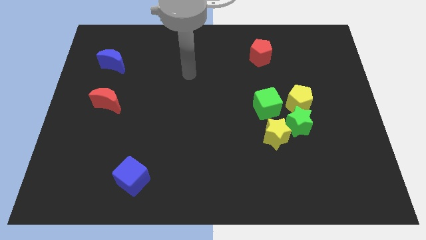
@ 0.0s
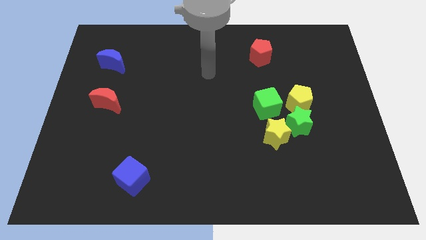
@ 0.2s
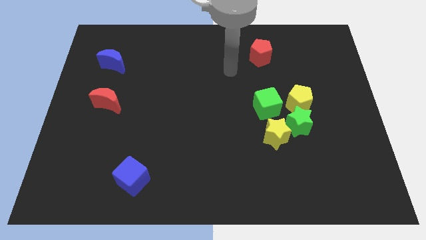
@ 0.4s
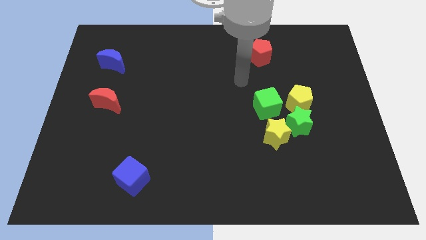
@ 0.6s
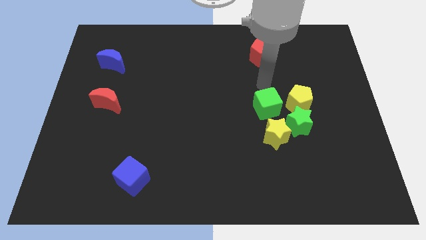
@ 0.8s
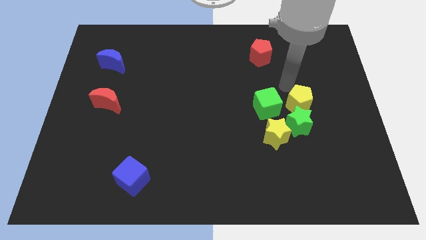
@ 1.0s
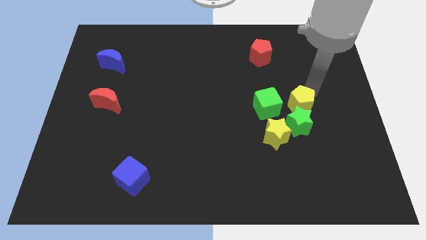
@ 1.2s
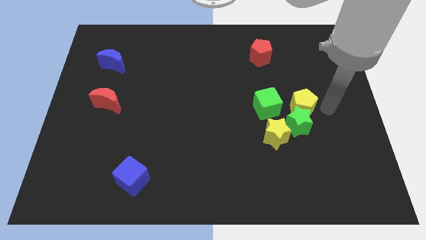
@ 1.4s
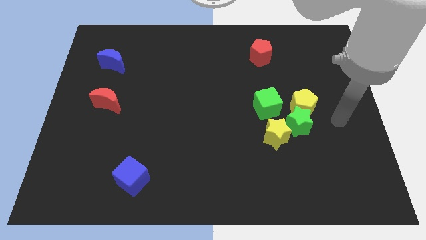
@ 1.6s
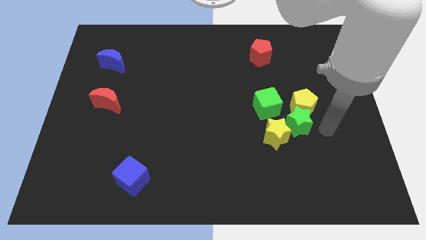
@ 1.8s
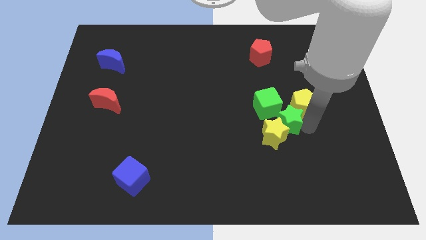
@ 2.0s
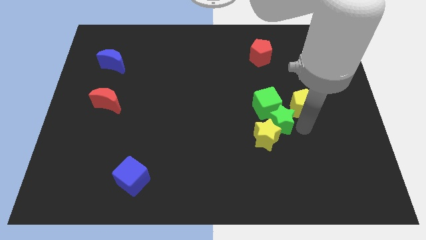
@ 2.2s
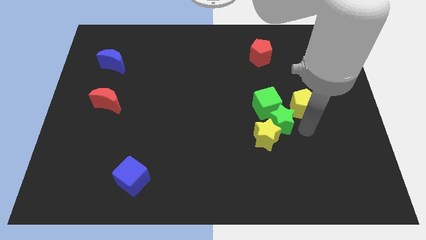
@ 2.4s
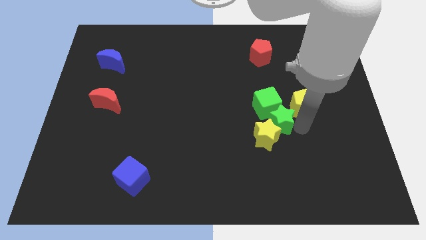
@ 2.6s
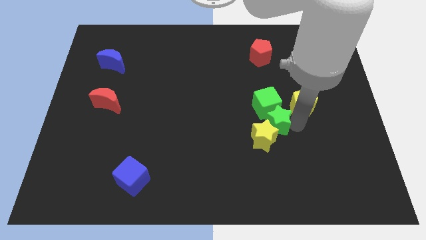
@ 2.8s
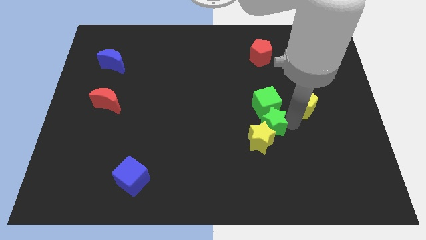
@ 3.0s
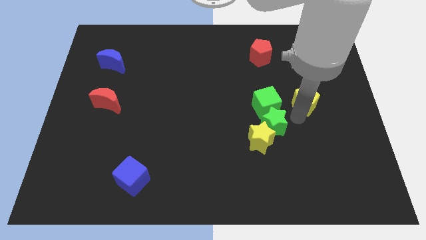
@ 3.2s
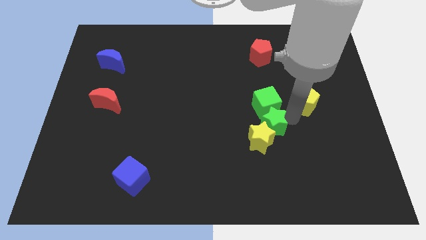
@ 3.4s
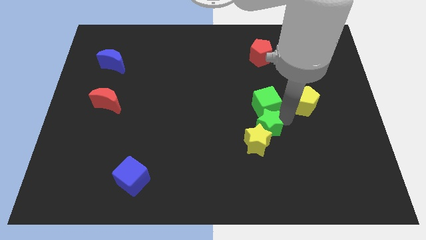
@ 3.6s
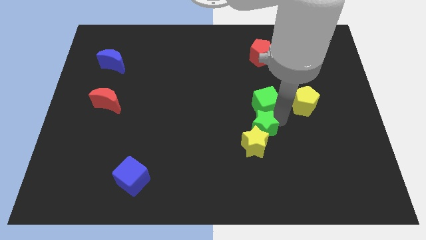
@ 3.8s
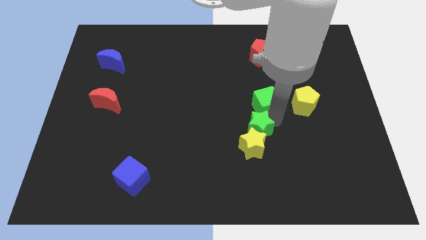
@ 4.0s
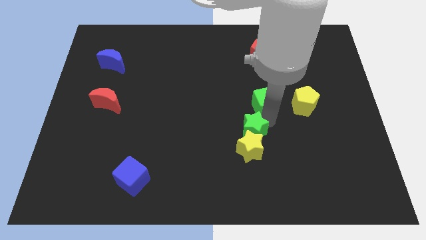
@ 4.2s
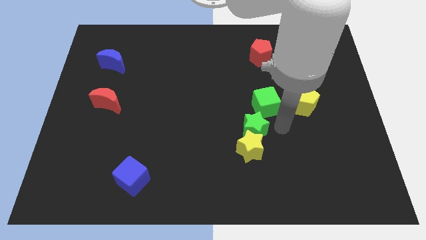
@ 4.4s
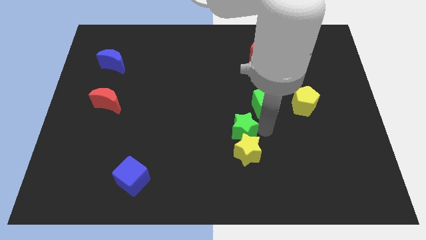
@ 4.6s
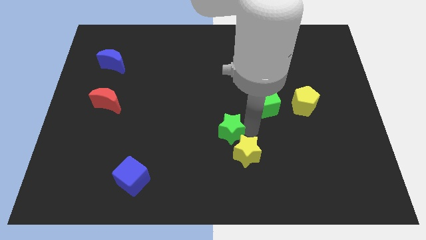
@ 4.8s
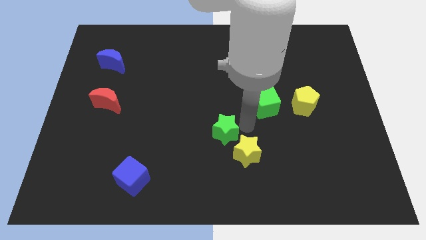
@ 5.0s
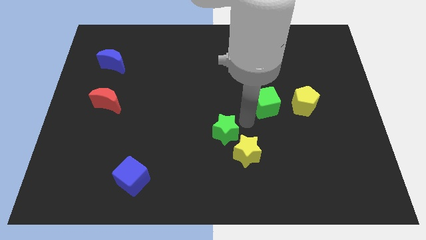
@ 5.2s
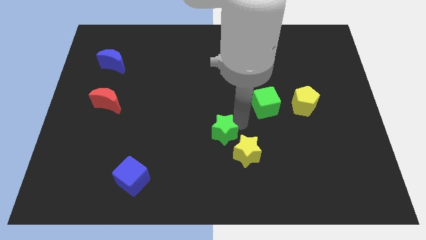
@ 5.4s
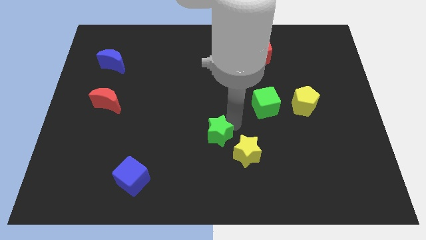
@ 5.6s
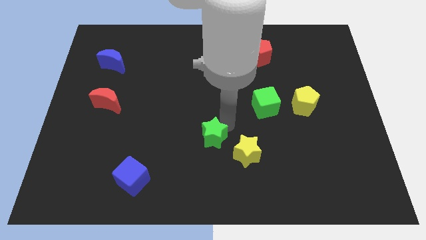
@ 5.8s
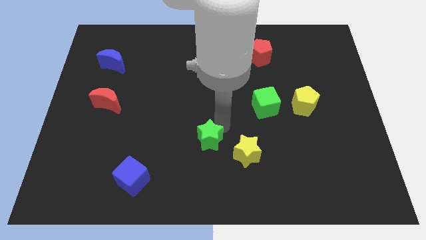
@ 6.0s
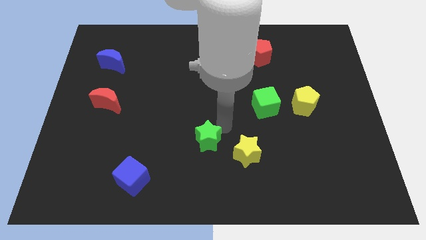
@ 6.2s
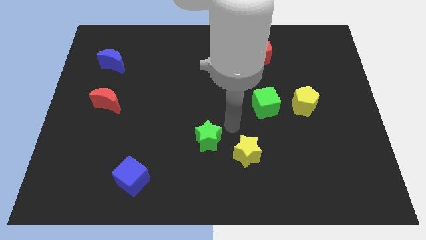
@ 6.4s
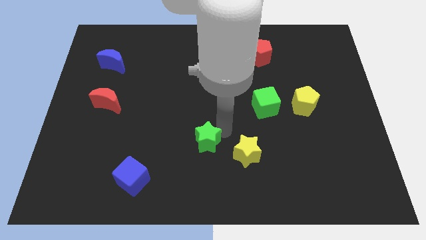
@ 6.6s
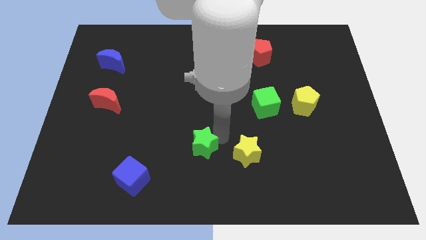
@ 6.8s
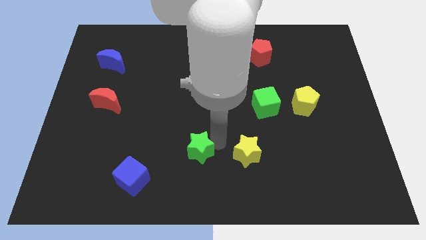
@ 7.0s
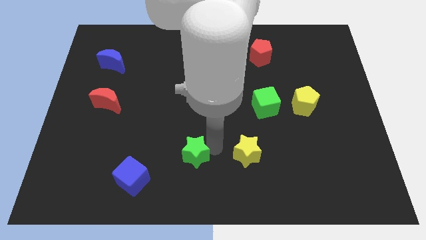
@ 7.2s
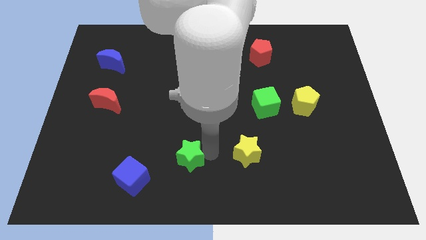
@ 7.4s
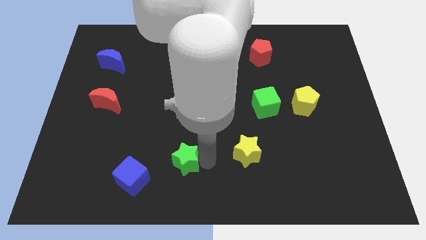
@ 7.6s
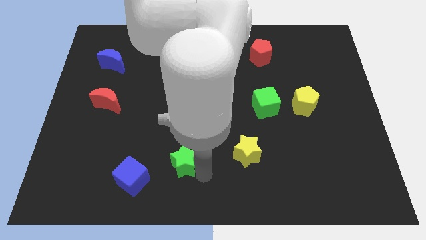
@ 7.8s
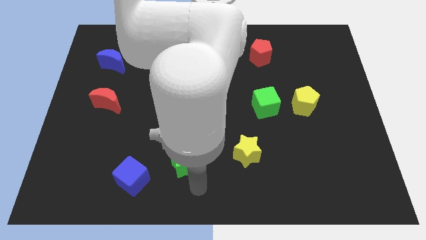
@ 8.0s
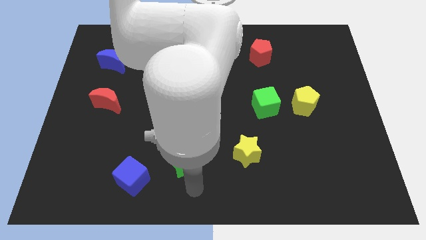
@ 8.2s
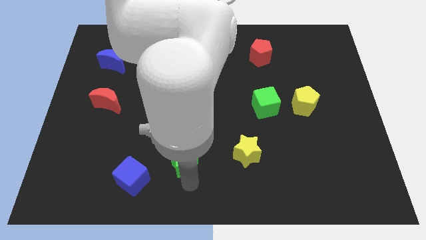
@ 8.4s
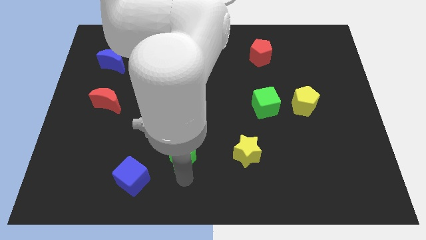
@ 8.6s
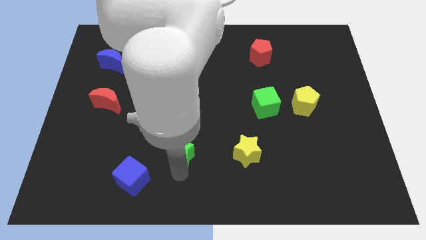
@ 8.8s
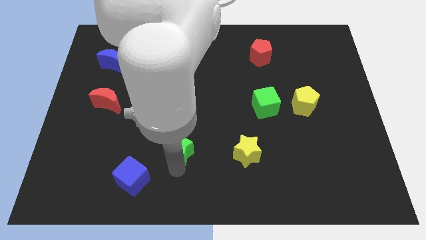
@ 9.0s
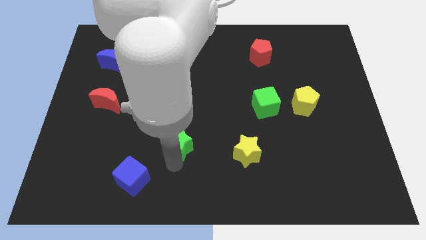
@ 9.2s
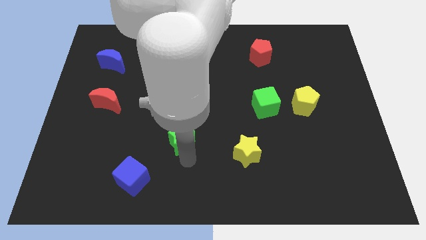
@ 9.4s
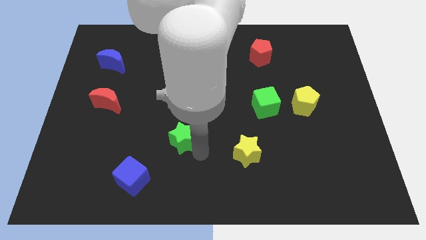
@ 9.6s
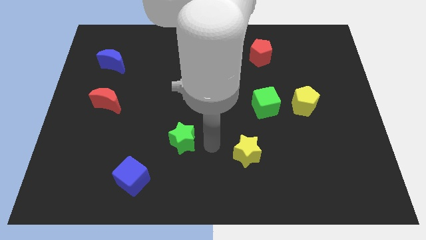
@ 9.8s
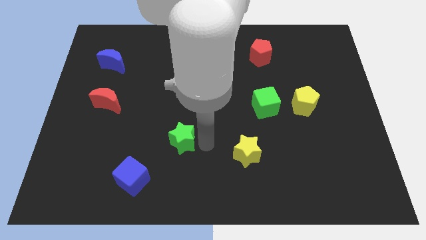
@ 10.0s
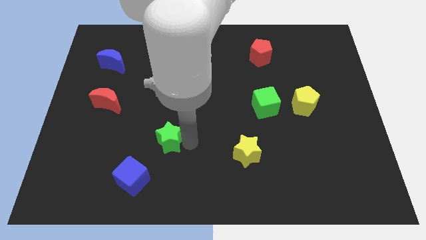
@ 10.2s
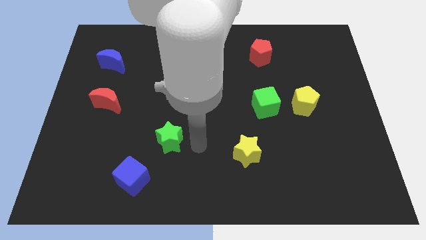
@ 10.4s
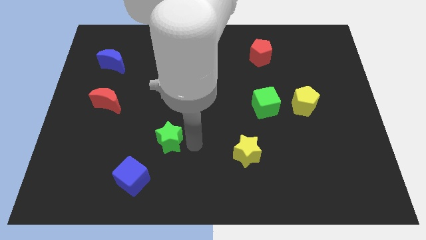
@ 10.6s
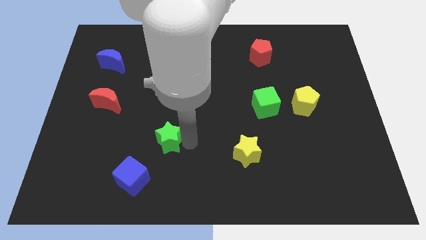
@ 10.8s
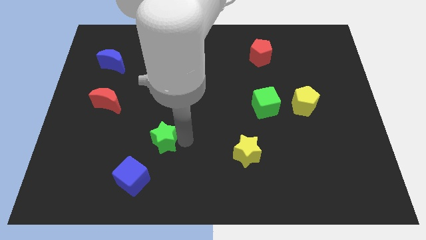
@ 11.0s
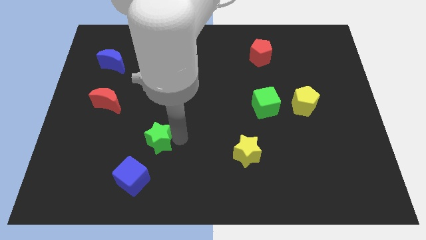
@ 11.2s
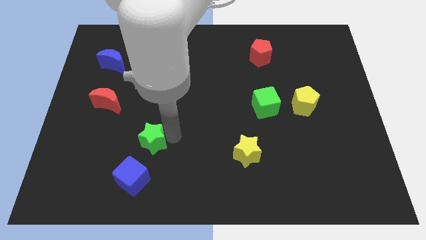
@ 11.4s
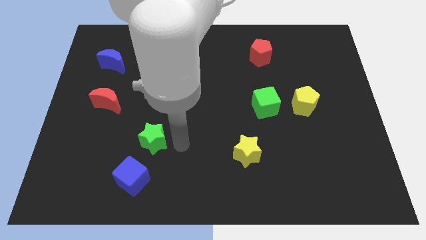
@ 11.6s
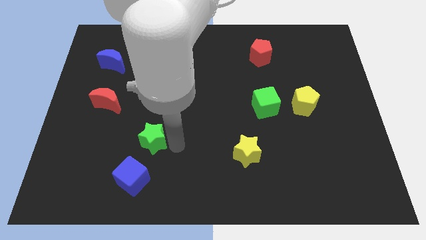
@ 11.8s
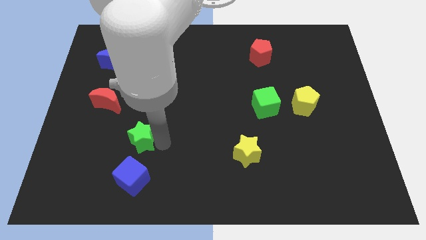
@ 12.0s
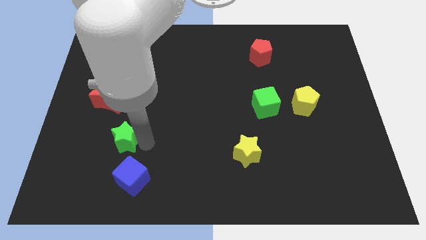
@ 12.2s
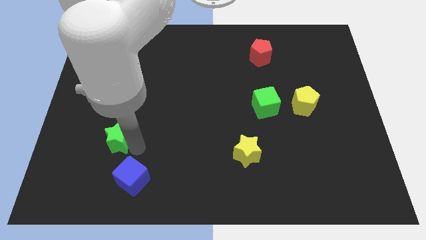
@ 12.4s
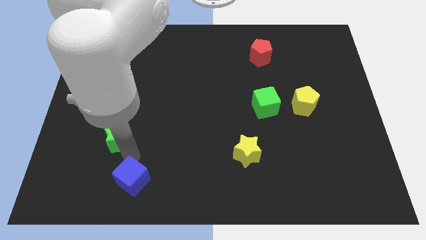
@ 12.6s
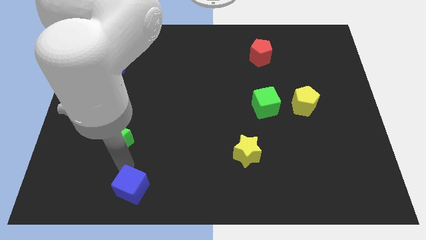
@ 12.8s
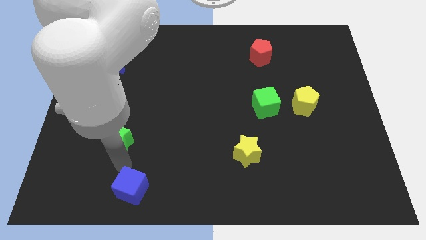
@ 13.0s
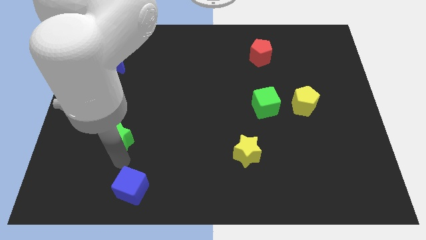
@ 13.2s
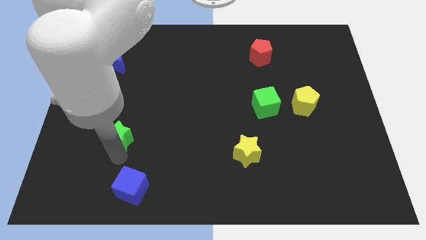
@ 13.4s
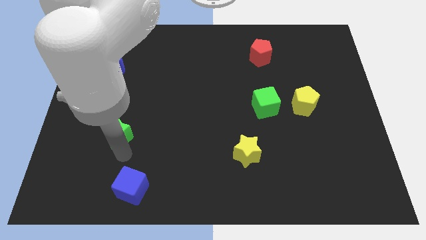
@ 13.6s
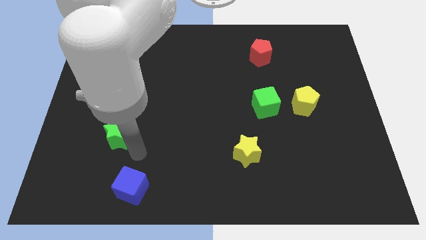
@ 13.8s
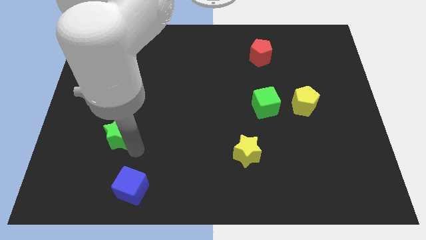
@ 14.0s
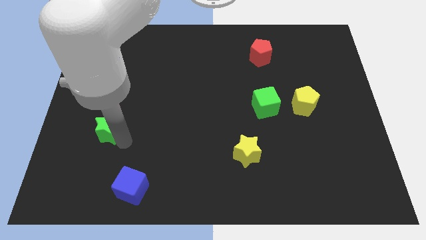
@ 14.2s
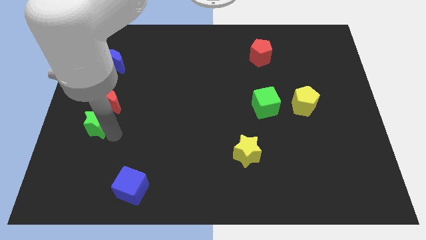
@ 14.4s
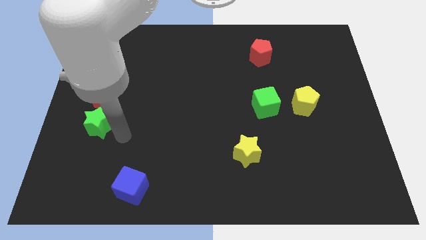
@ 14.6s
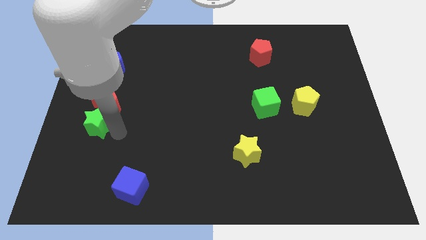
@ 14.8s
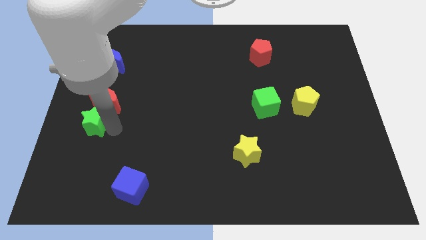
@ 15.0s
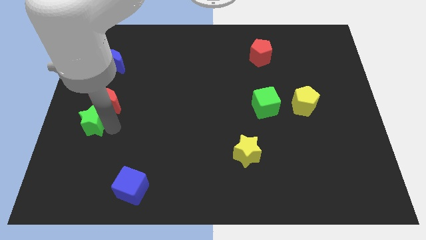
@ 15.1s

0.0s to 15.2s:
slide the green star to the left side of the board
